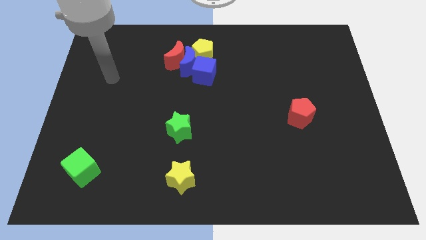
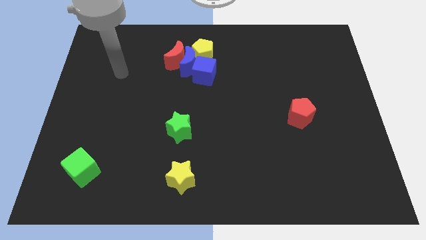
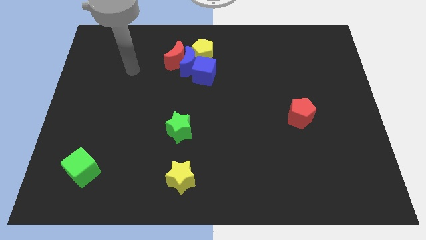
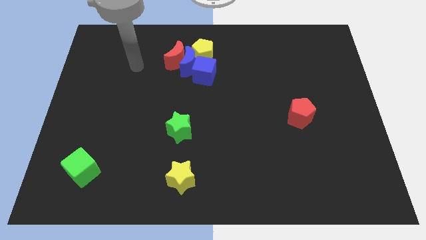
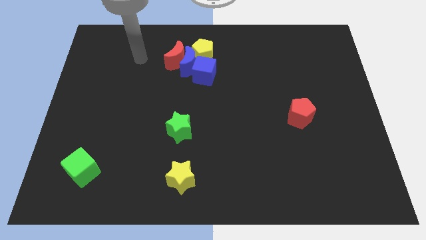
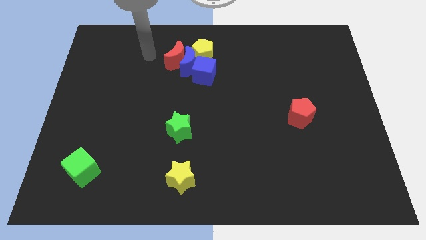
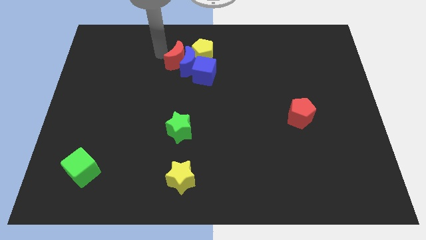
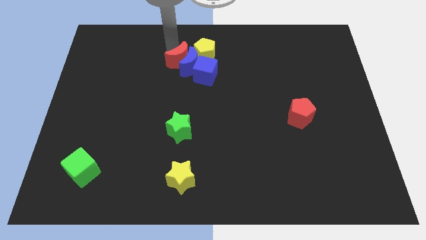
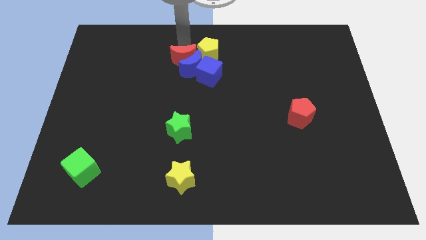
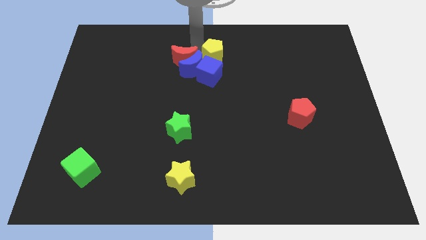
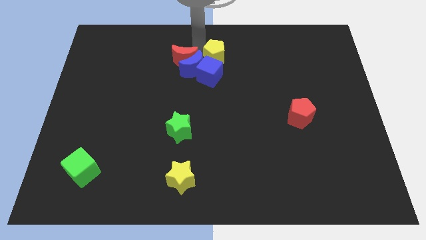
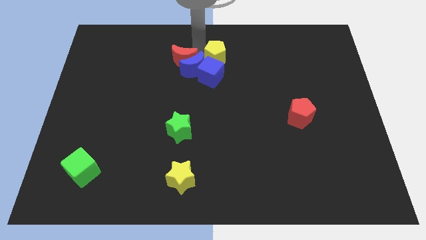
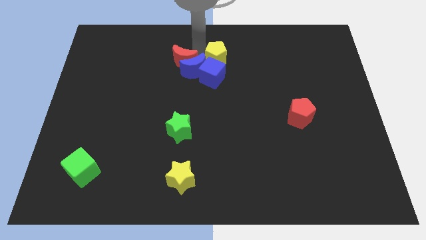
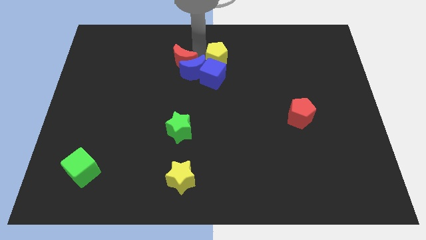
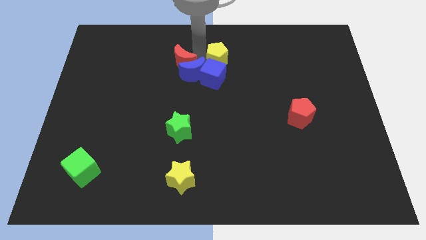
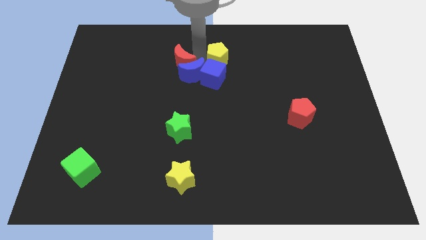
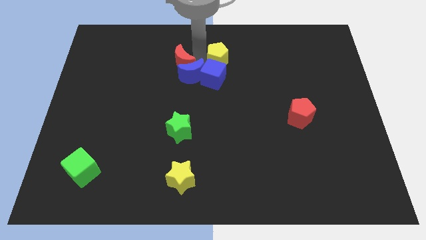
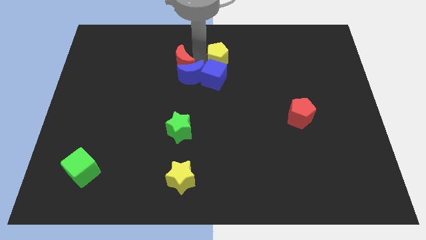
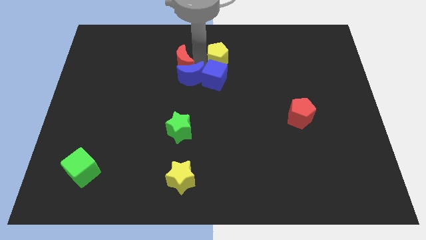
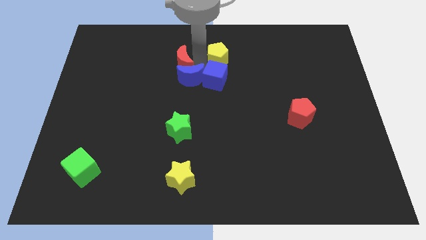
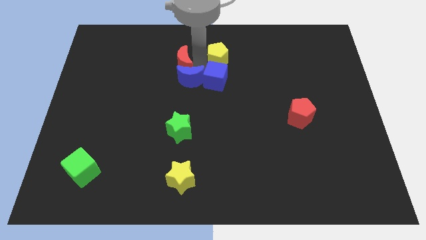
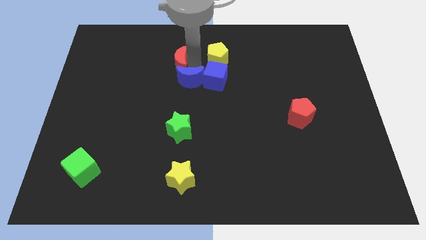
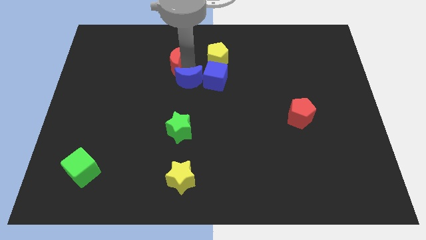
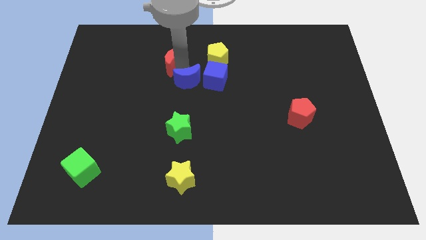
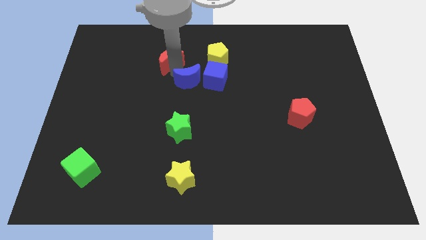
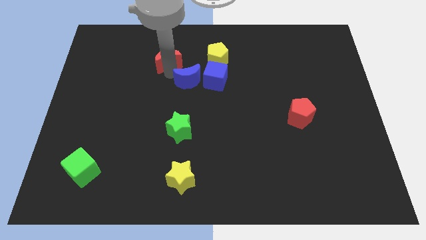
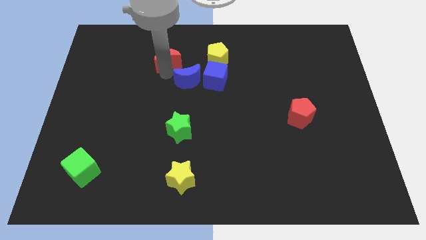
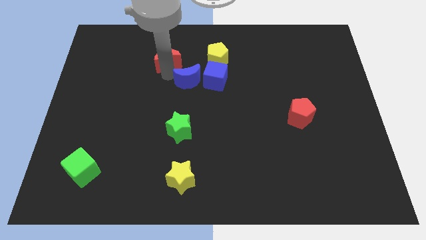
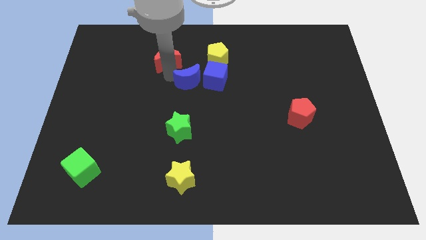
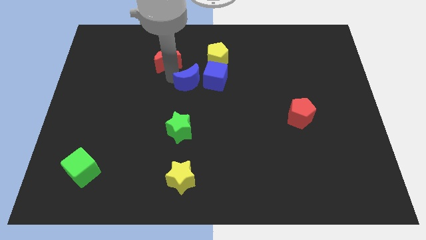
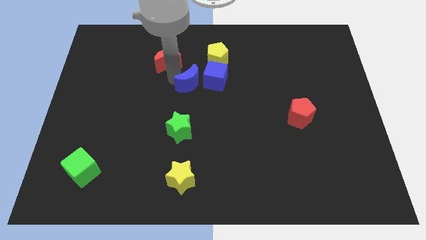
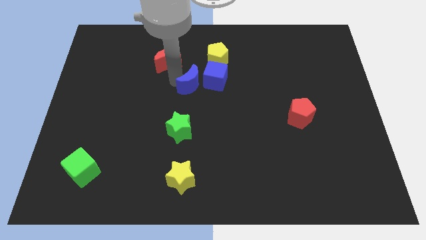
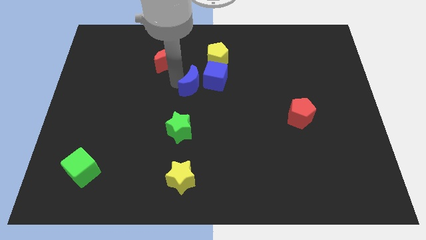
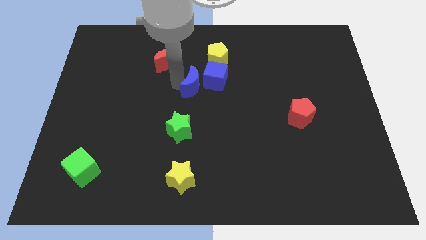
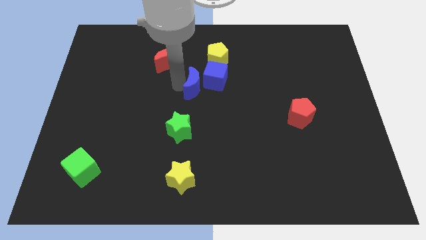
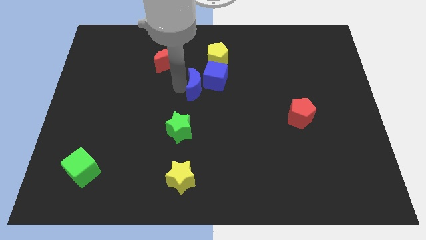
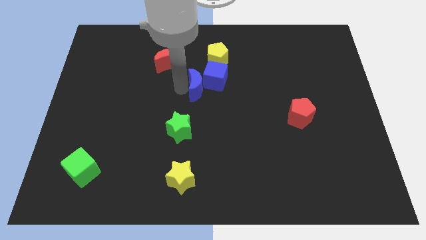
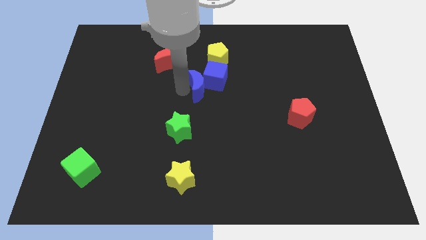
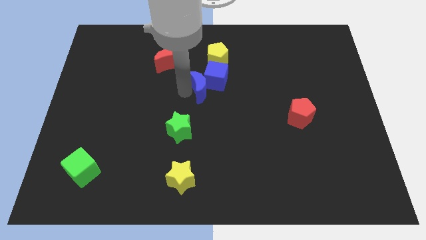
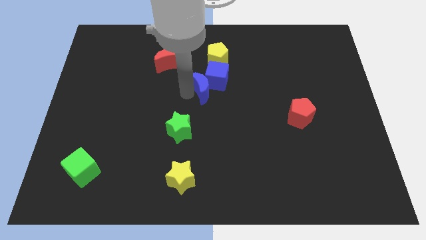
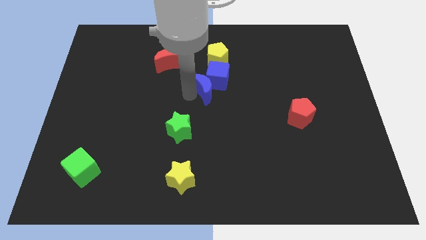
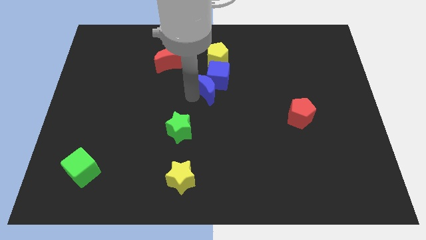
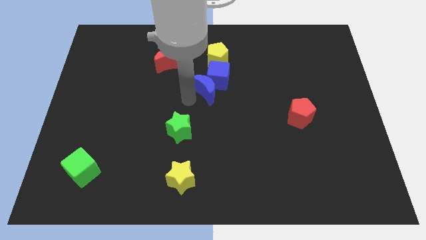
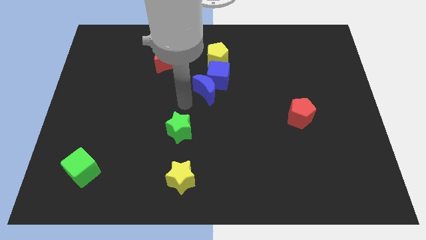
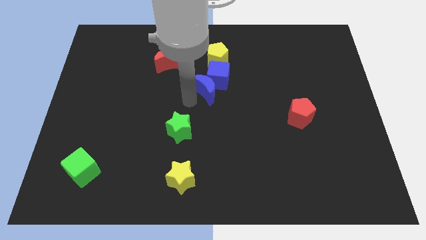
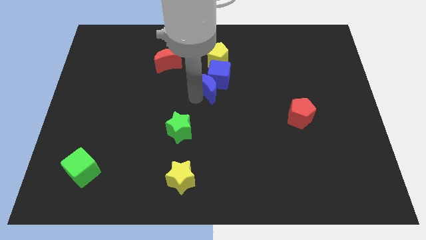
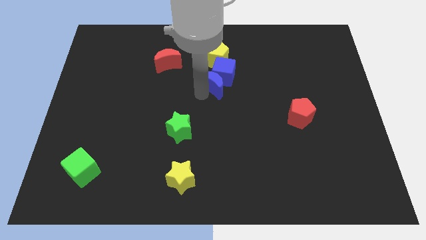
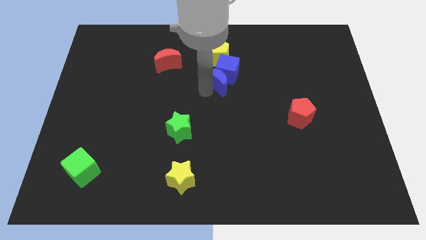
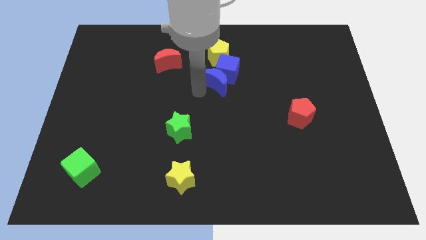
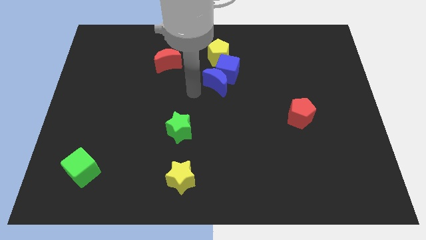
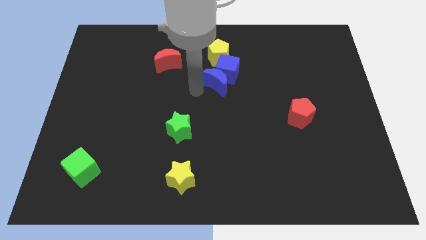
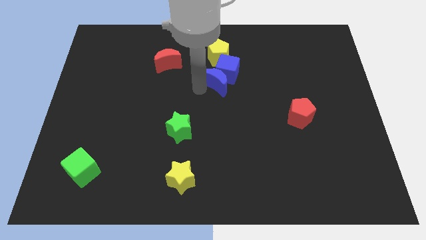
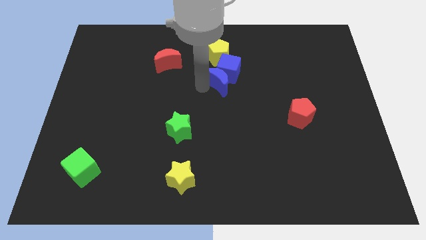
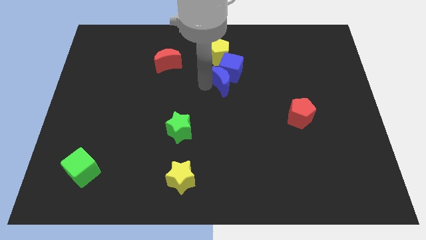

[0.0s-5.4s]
slightly move the blue moon right

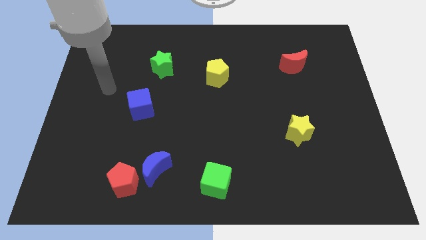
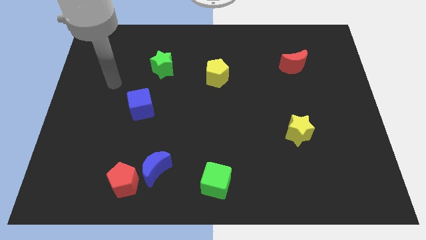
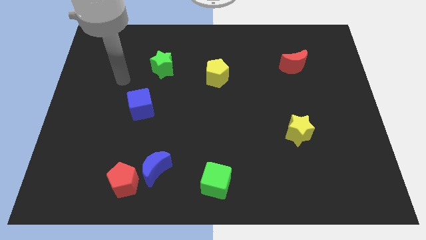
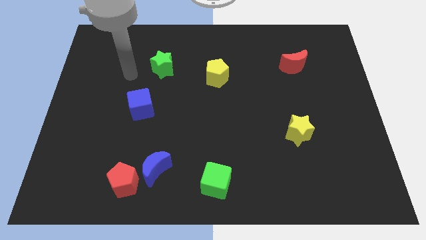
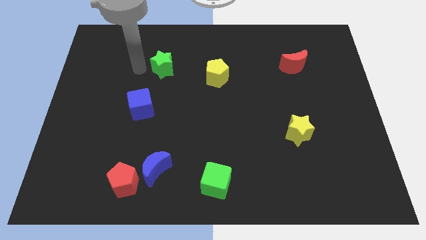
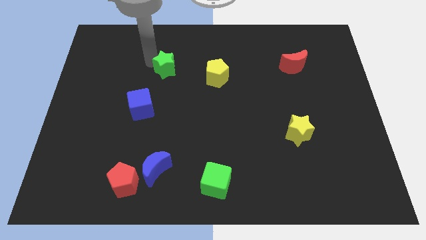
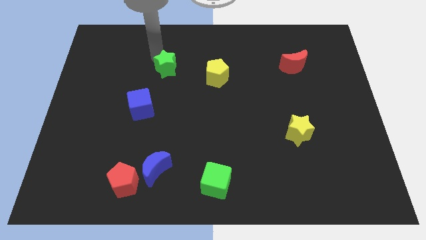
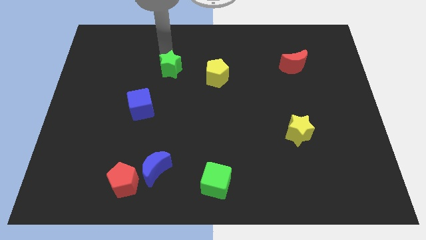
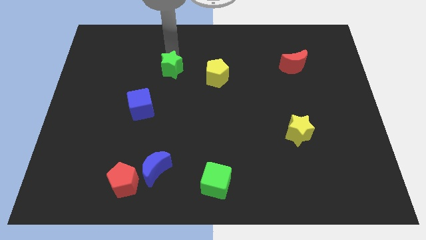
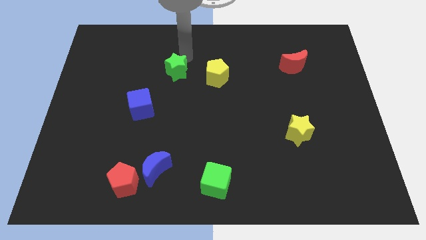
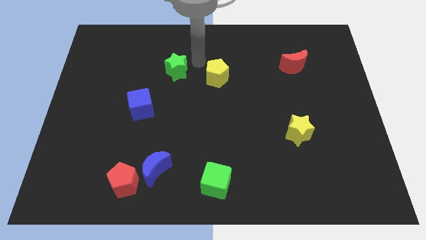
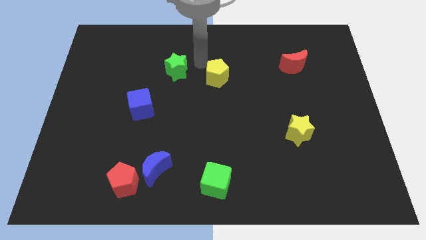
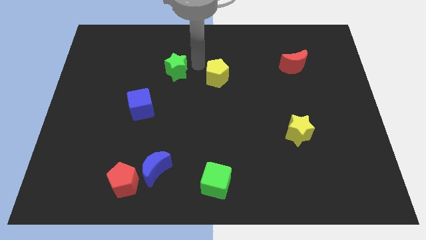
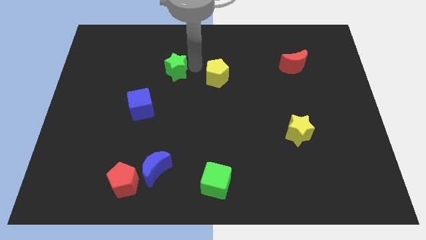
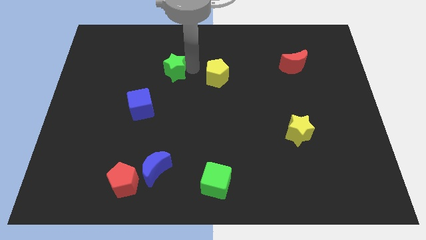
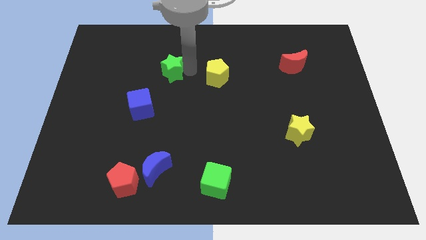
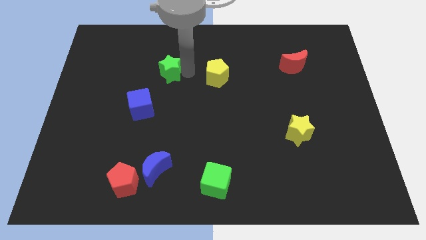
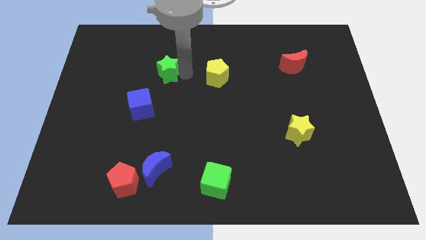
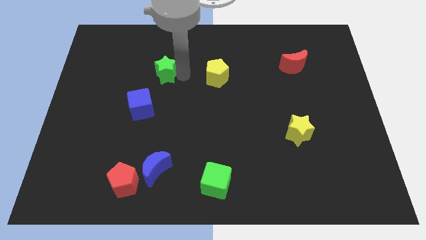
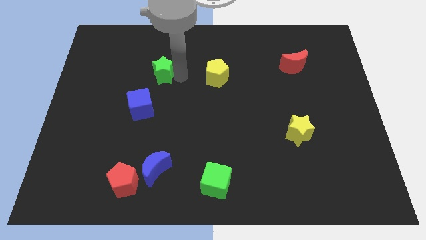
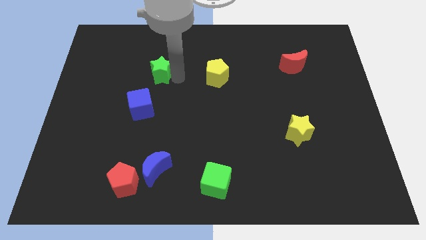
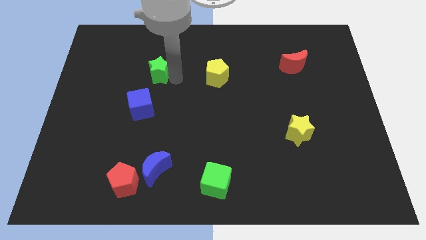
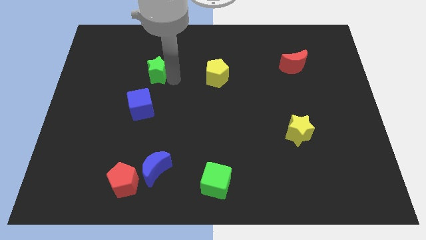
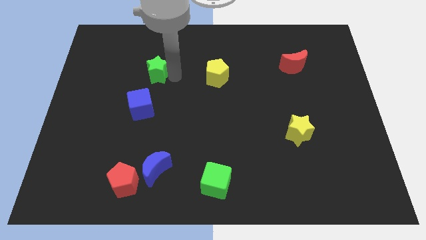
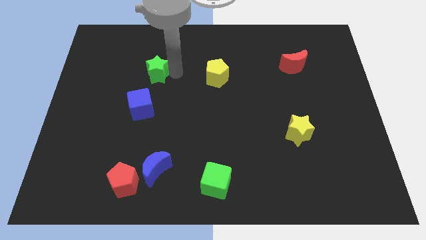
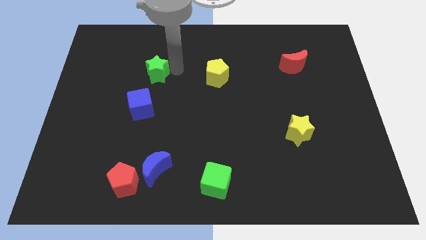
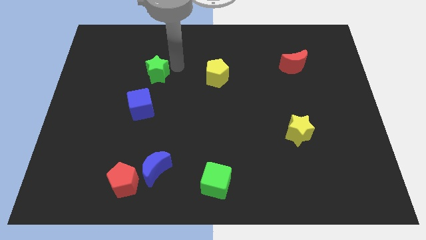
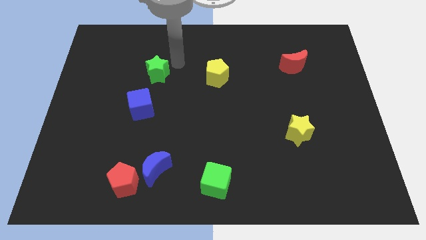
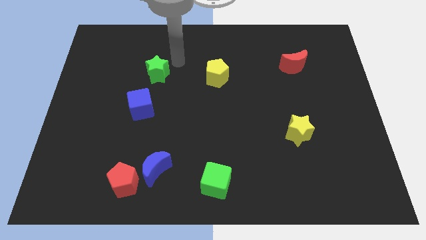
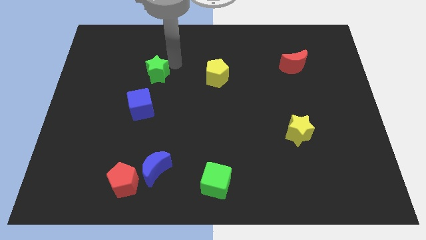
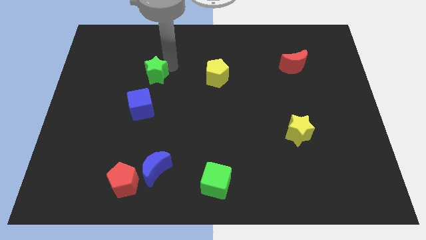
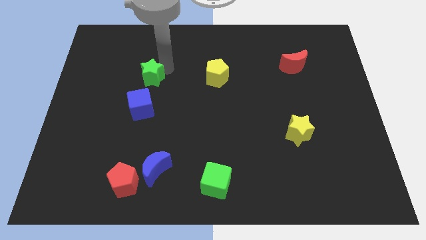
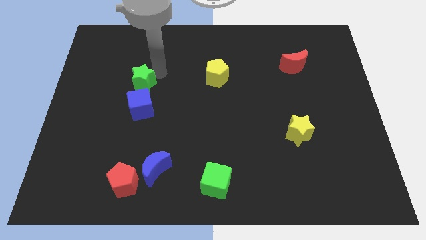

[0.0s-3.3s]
push the green star a little bit diagonally down and left
